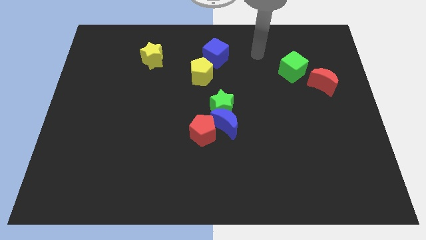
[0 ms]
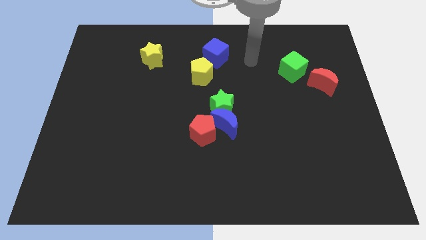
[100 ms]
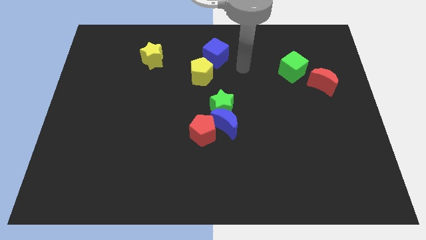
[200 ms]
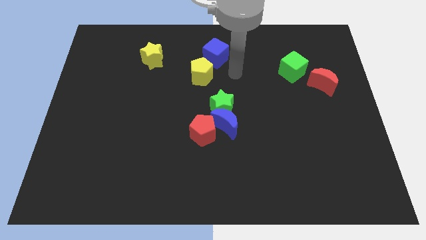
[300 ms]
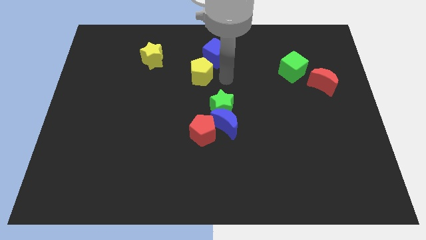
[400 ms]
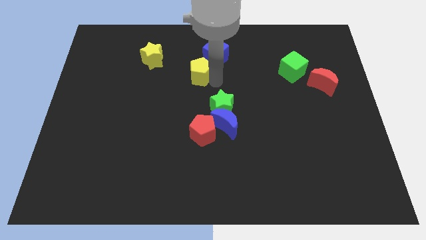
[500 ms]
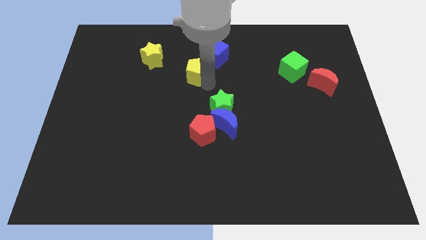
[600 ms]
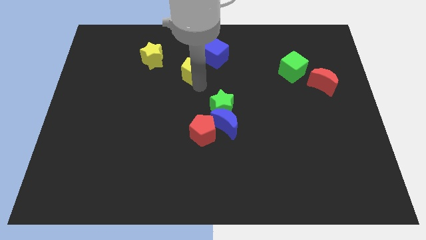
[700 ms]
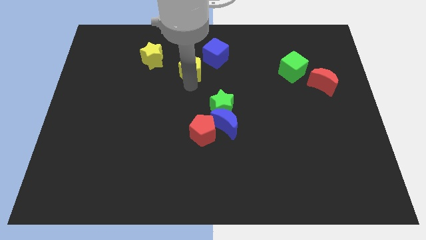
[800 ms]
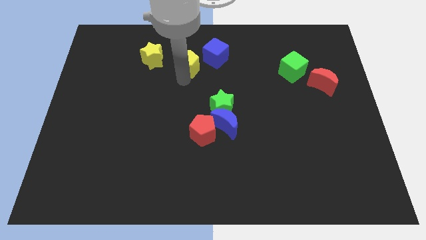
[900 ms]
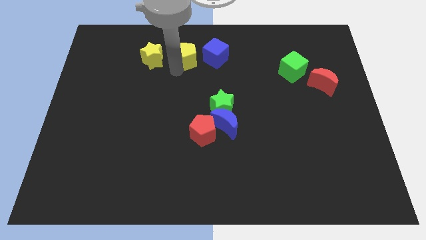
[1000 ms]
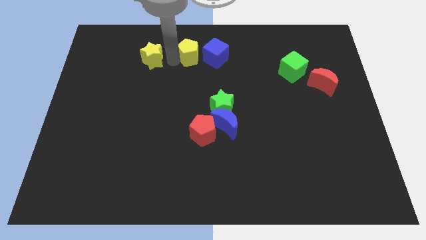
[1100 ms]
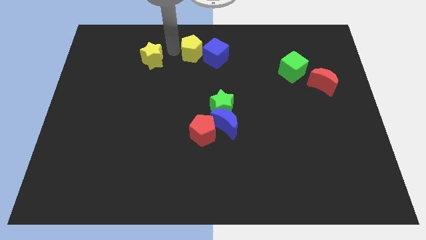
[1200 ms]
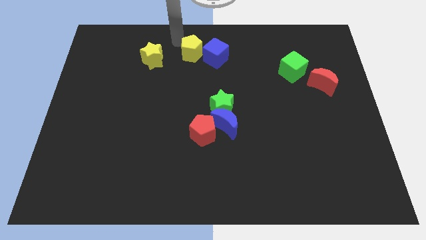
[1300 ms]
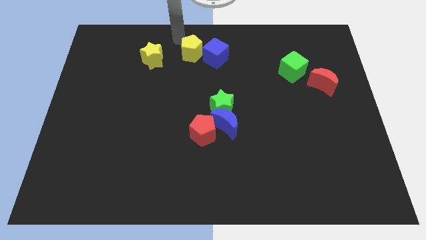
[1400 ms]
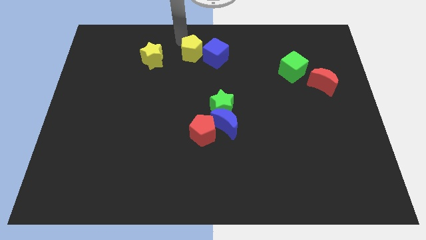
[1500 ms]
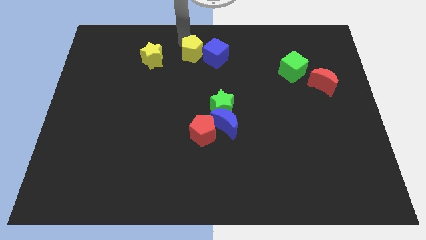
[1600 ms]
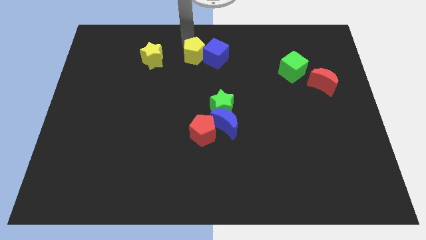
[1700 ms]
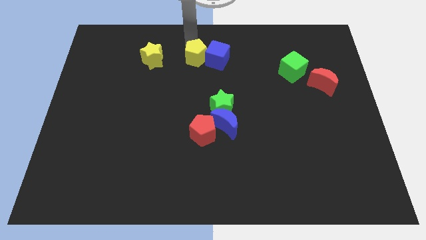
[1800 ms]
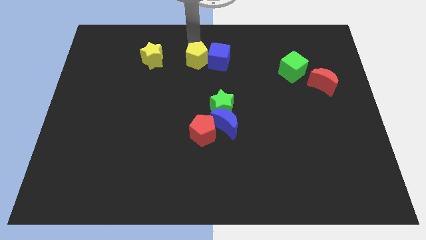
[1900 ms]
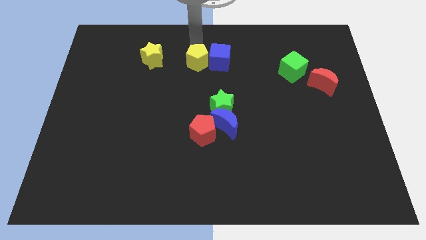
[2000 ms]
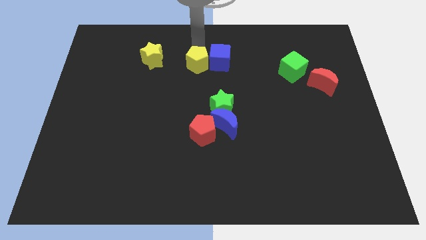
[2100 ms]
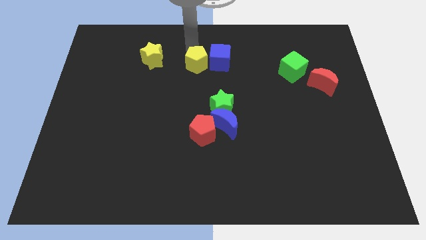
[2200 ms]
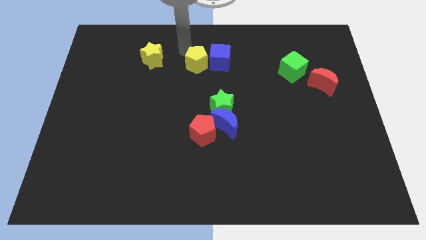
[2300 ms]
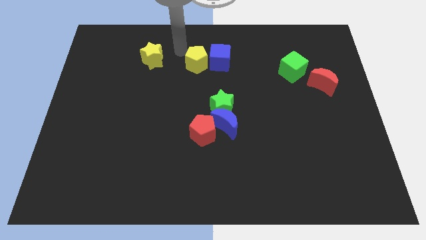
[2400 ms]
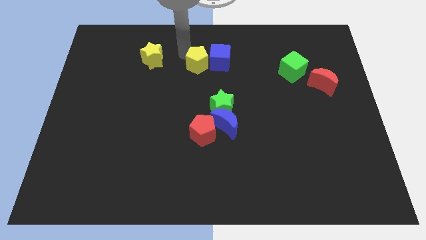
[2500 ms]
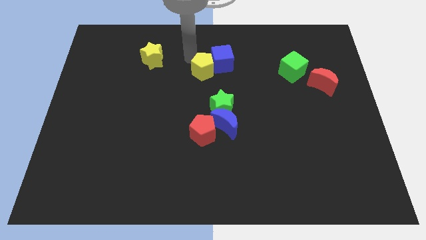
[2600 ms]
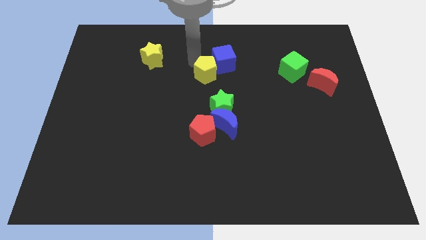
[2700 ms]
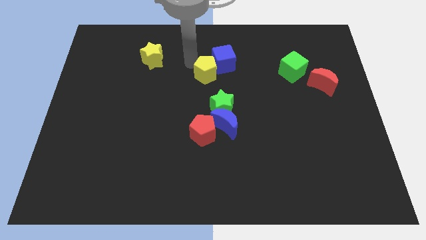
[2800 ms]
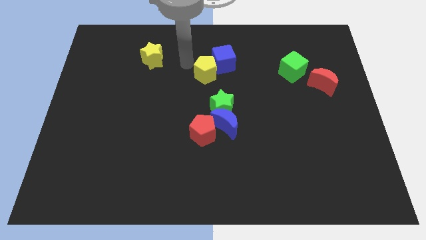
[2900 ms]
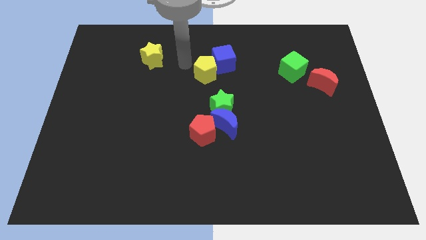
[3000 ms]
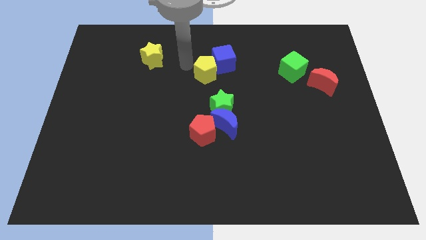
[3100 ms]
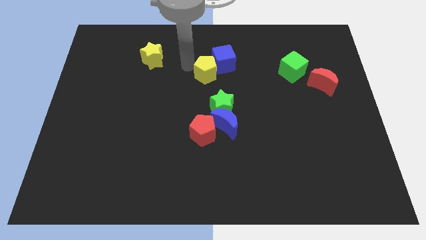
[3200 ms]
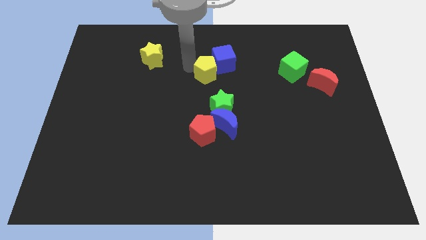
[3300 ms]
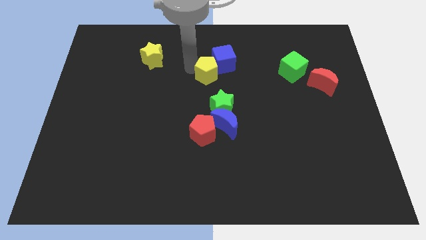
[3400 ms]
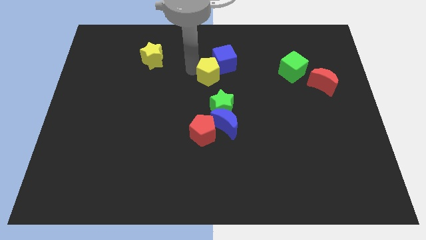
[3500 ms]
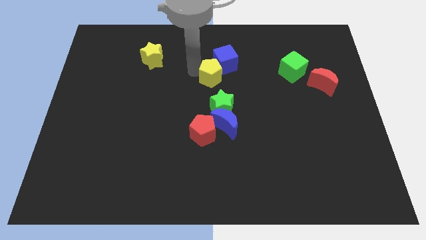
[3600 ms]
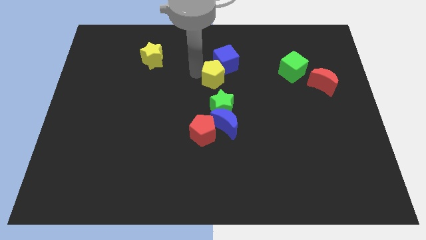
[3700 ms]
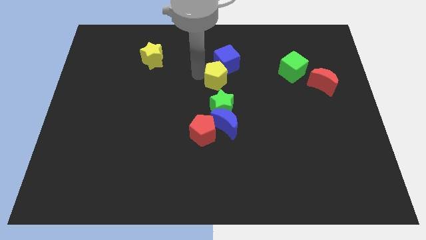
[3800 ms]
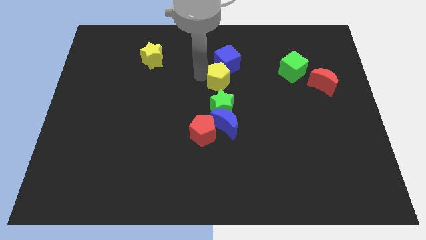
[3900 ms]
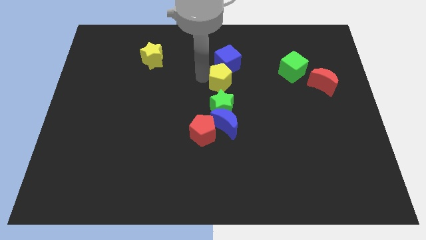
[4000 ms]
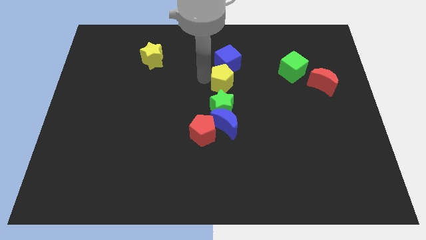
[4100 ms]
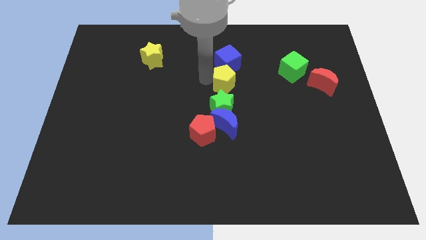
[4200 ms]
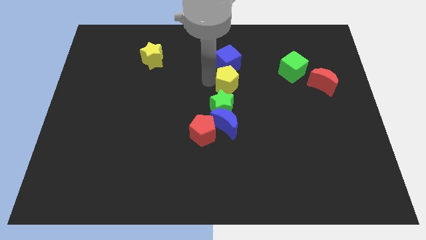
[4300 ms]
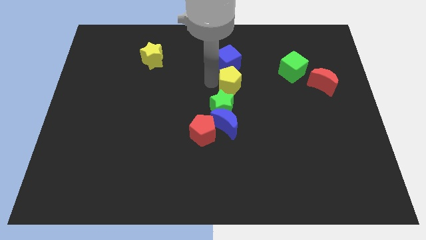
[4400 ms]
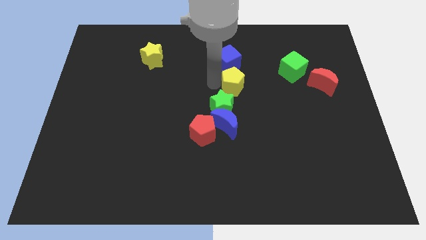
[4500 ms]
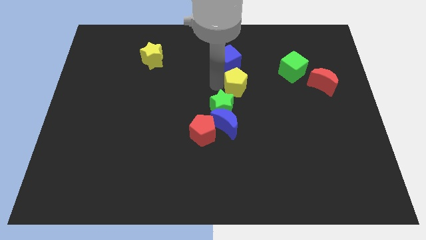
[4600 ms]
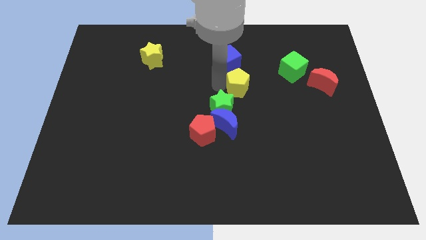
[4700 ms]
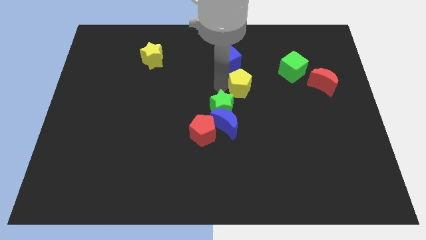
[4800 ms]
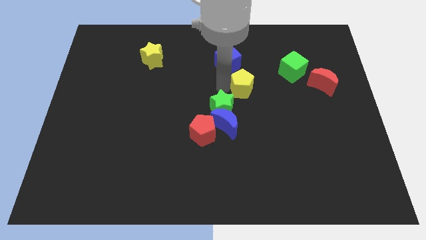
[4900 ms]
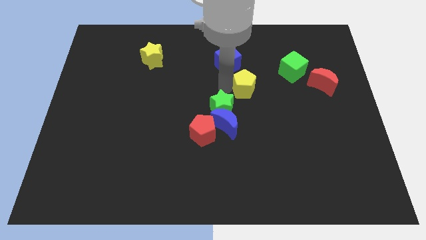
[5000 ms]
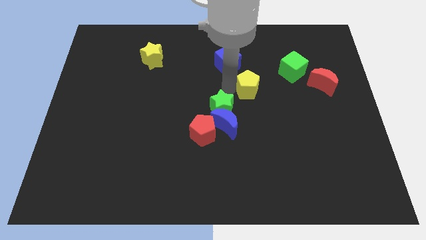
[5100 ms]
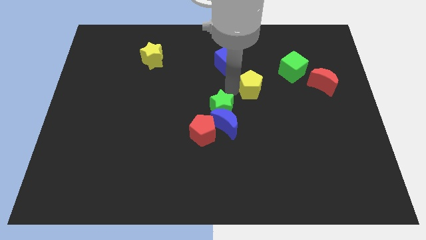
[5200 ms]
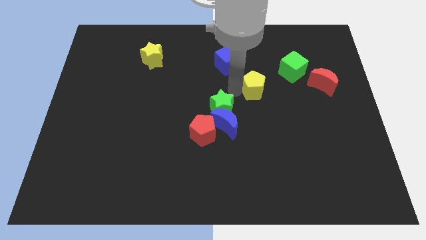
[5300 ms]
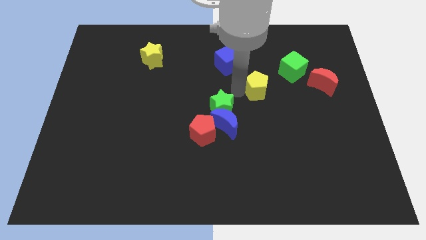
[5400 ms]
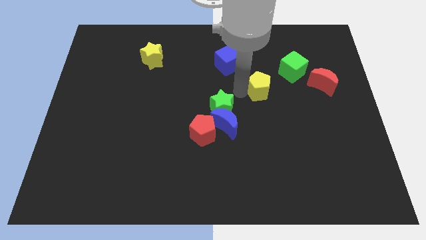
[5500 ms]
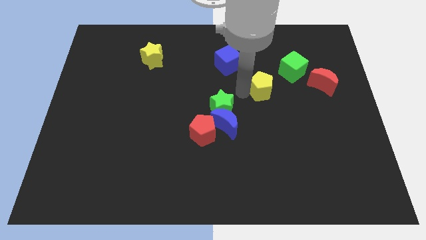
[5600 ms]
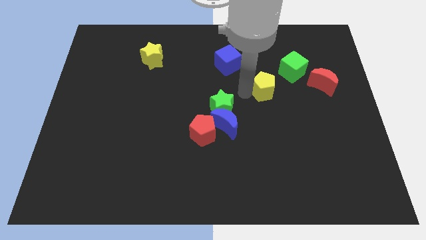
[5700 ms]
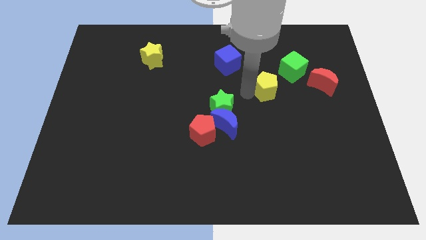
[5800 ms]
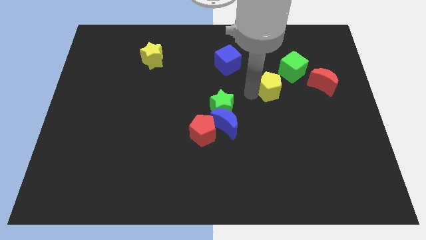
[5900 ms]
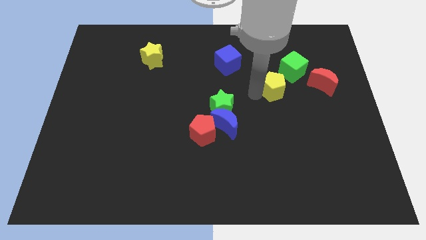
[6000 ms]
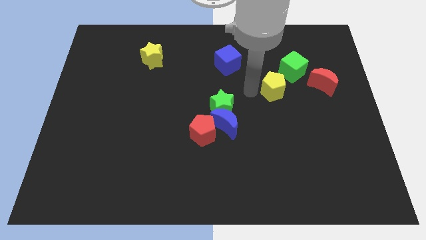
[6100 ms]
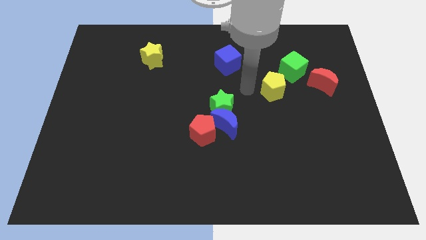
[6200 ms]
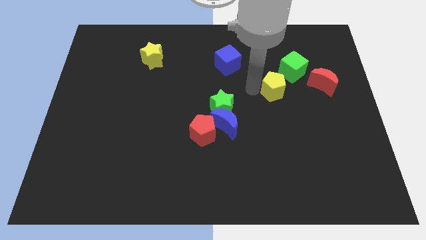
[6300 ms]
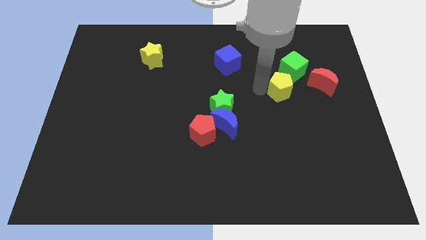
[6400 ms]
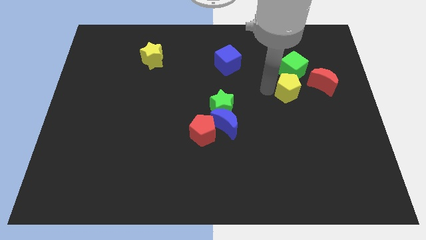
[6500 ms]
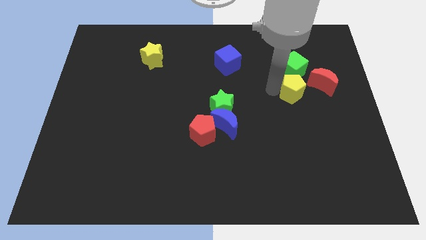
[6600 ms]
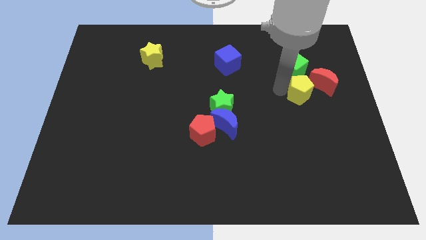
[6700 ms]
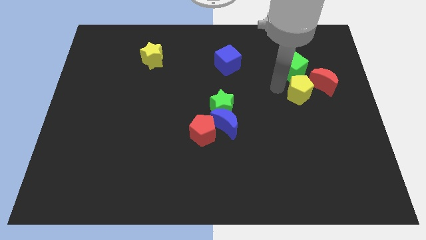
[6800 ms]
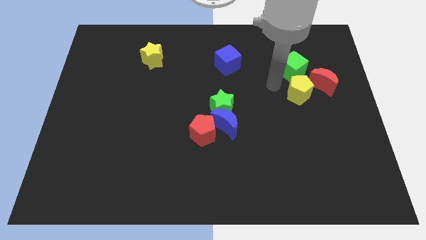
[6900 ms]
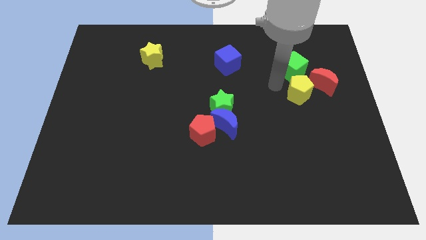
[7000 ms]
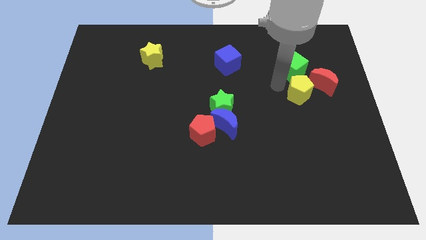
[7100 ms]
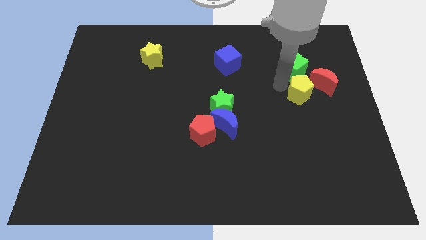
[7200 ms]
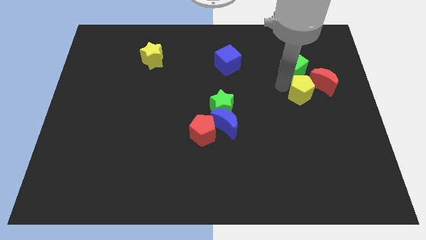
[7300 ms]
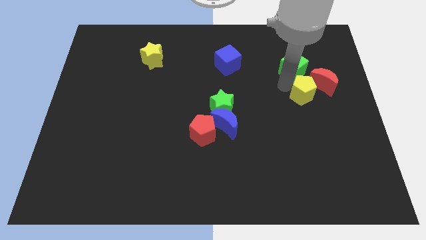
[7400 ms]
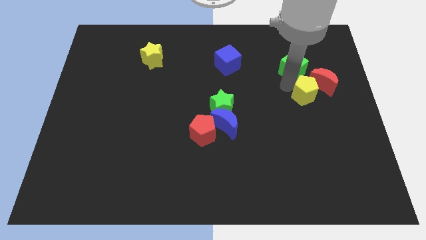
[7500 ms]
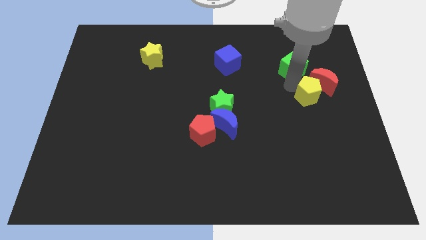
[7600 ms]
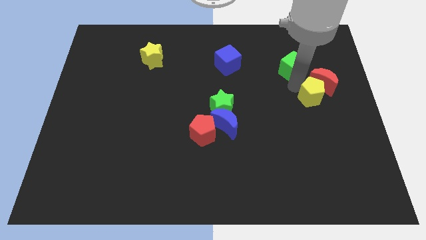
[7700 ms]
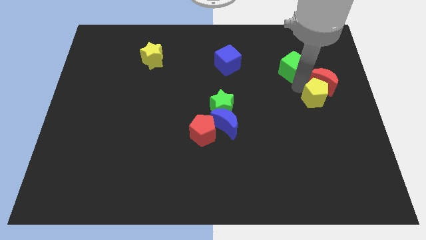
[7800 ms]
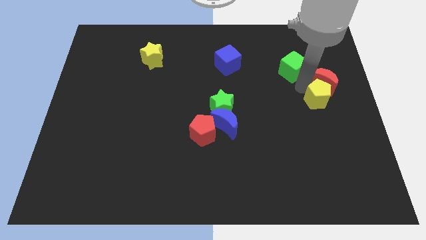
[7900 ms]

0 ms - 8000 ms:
slide the yellow pentagon to the right side

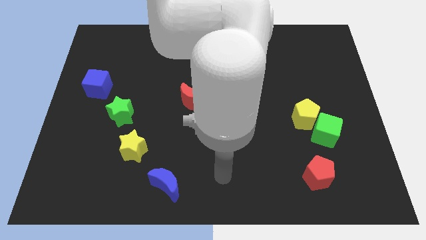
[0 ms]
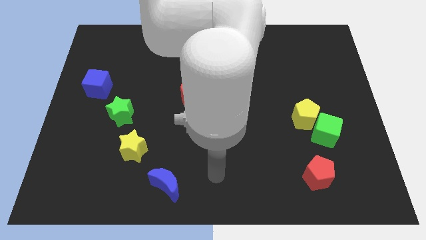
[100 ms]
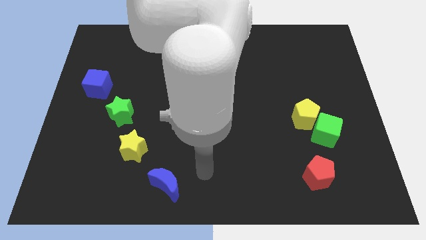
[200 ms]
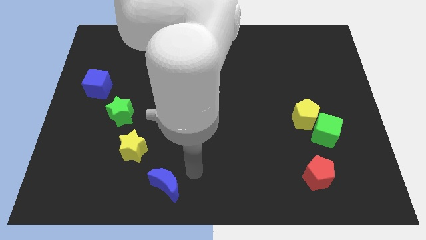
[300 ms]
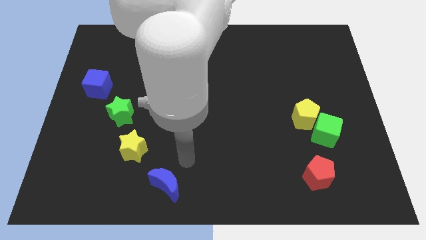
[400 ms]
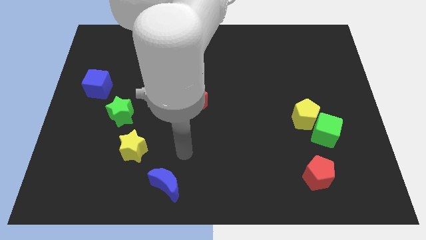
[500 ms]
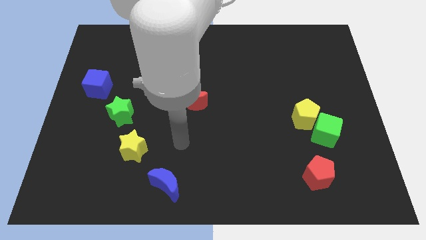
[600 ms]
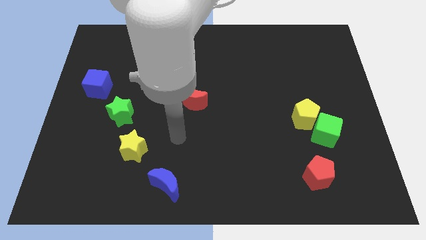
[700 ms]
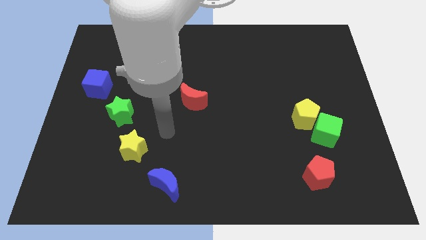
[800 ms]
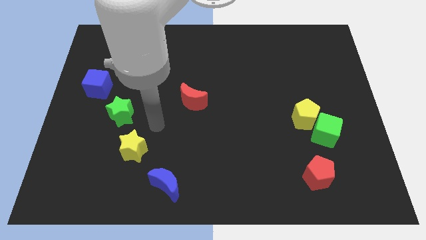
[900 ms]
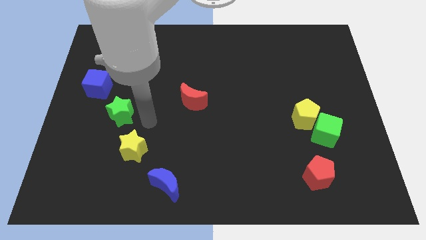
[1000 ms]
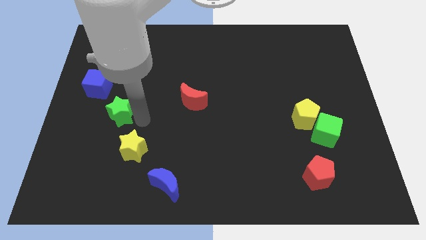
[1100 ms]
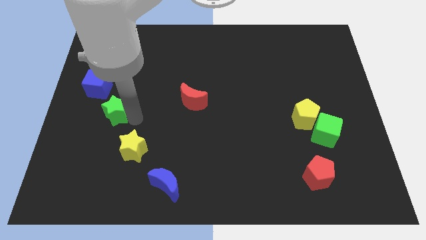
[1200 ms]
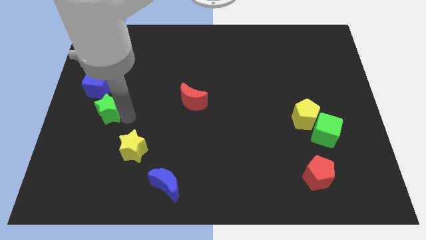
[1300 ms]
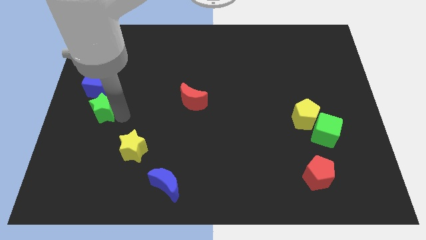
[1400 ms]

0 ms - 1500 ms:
move the green star to the left side
